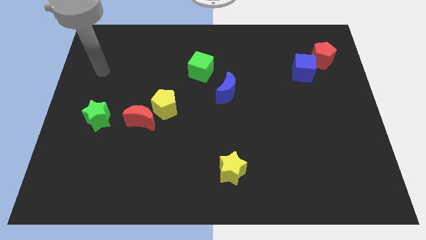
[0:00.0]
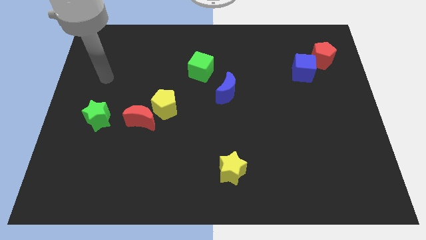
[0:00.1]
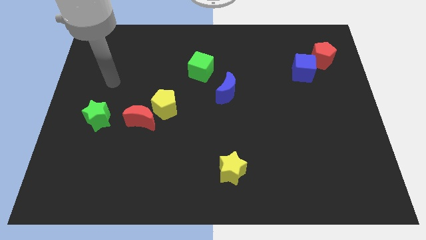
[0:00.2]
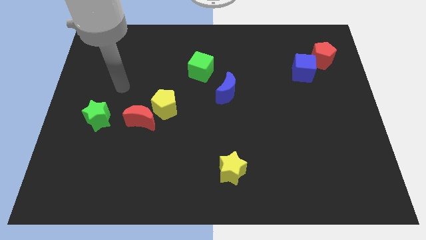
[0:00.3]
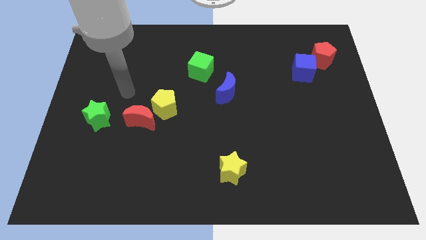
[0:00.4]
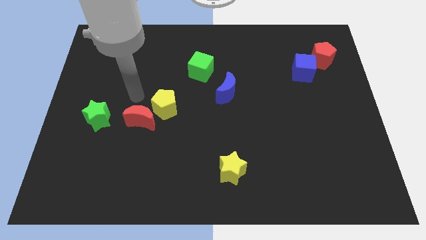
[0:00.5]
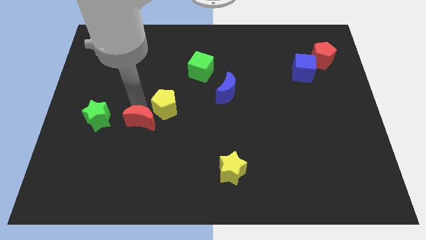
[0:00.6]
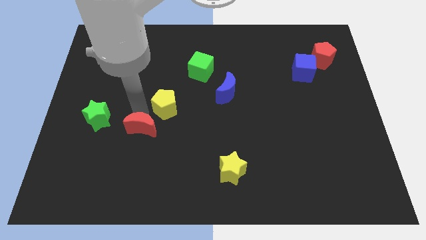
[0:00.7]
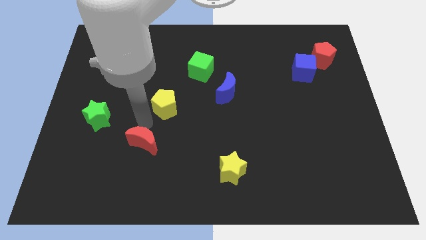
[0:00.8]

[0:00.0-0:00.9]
pull the yellow pentagon apart from the red moon

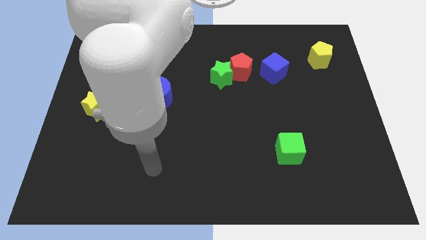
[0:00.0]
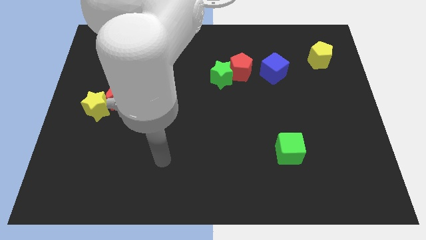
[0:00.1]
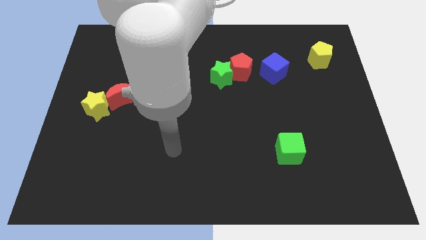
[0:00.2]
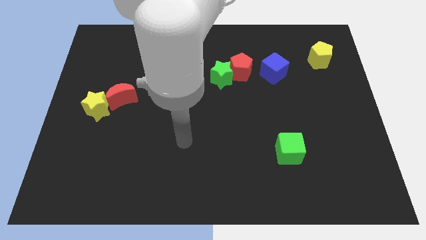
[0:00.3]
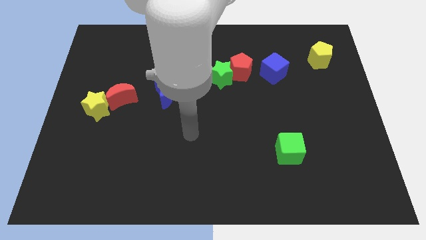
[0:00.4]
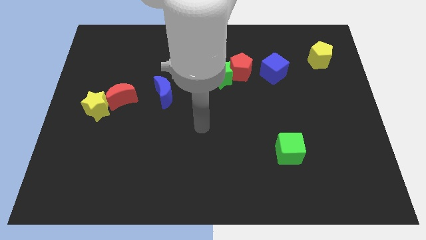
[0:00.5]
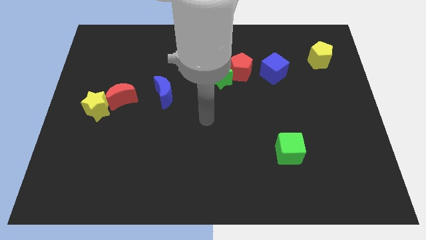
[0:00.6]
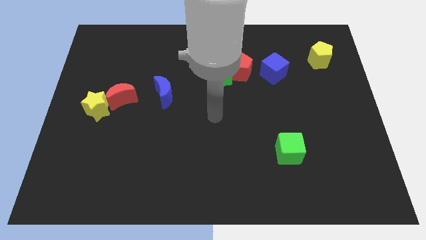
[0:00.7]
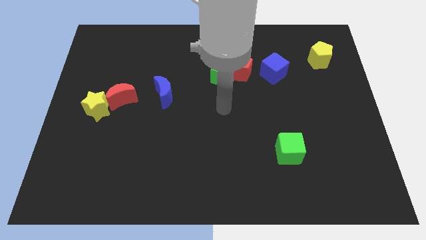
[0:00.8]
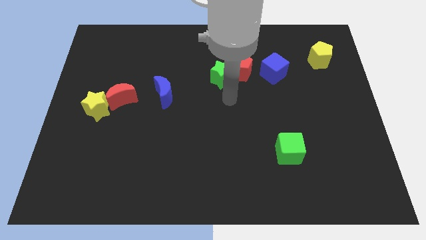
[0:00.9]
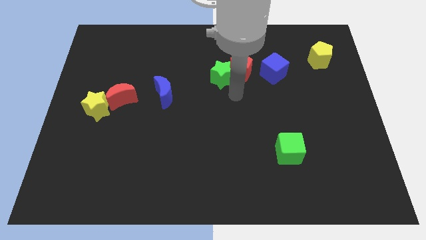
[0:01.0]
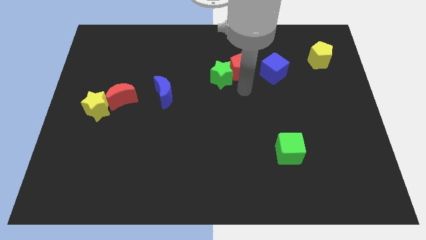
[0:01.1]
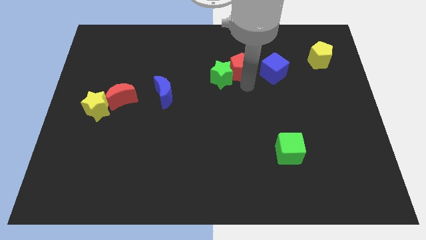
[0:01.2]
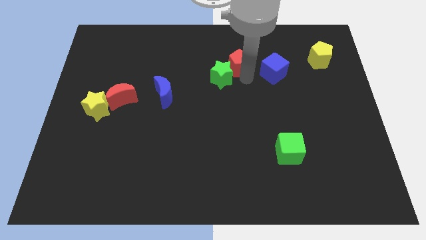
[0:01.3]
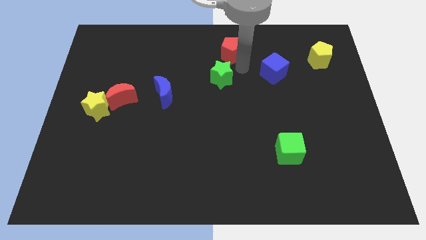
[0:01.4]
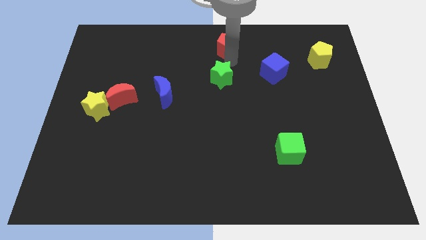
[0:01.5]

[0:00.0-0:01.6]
move the green star away from the red pentagon

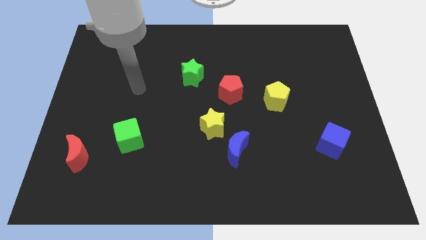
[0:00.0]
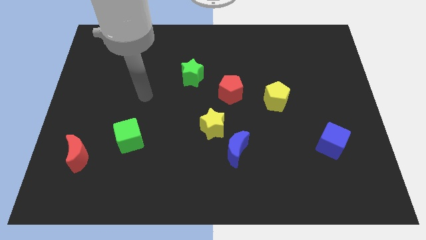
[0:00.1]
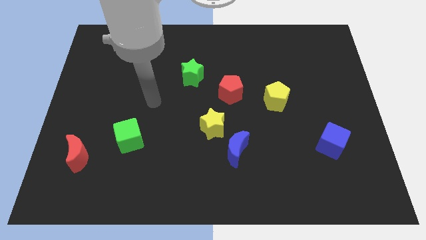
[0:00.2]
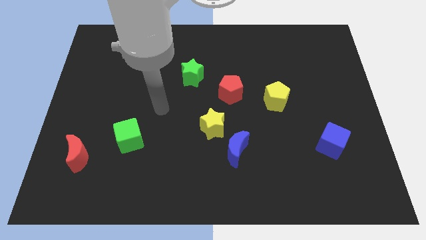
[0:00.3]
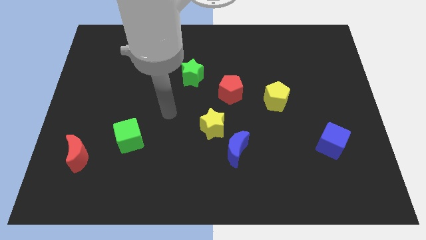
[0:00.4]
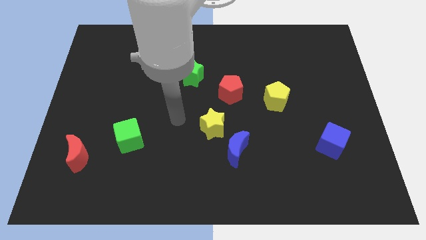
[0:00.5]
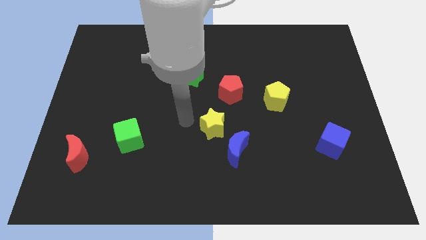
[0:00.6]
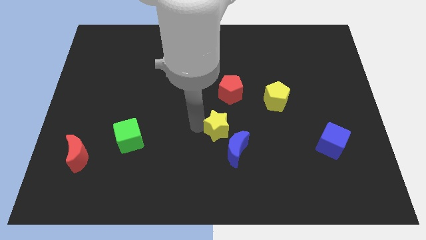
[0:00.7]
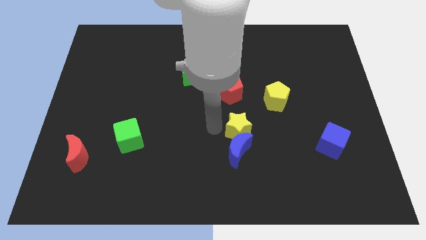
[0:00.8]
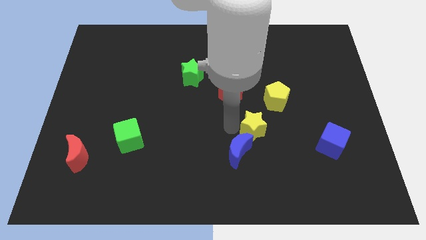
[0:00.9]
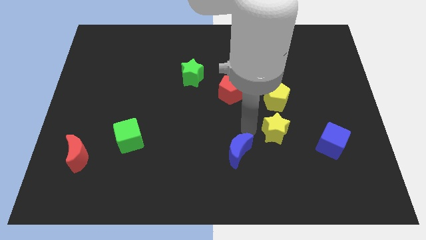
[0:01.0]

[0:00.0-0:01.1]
separate the blue moon from the yellow star

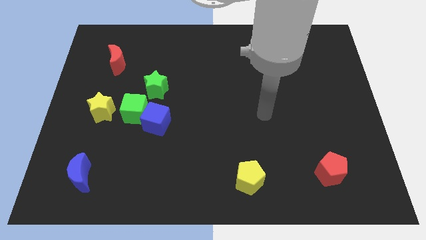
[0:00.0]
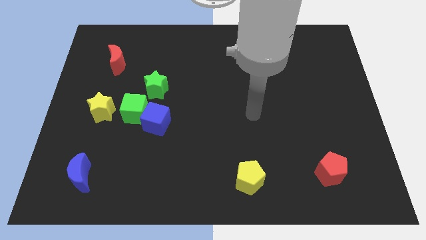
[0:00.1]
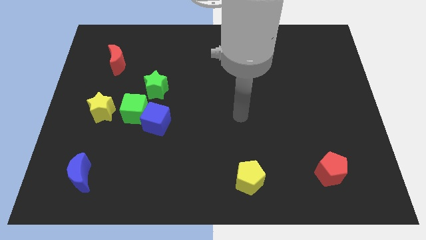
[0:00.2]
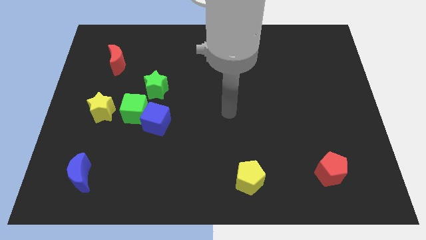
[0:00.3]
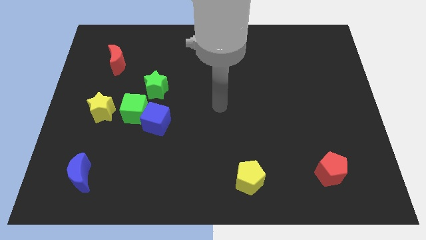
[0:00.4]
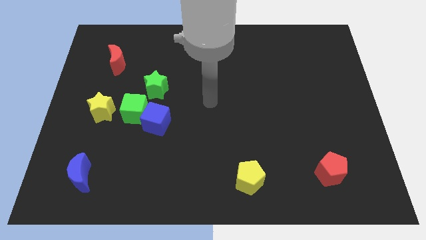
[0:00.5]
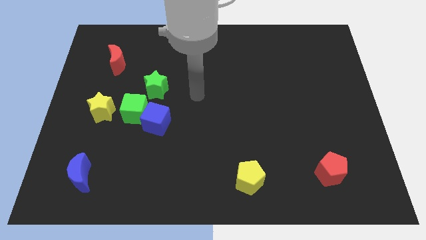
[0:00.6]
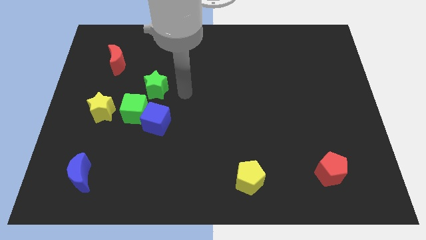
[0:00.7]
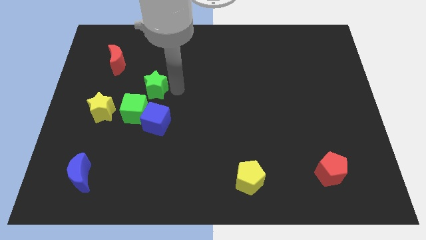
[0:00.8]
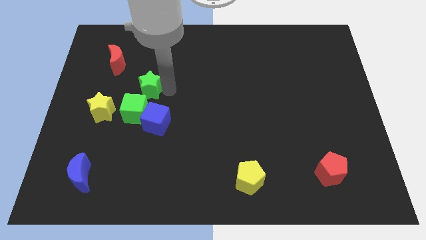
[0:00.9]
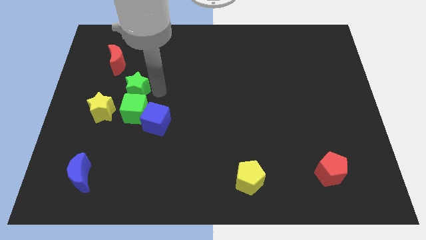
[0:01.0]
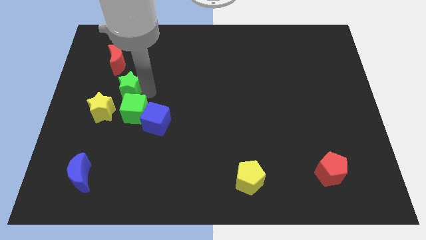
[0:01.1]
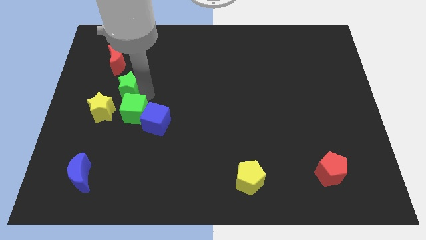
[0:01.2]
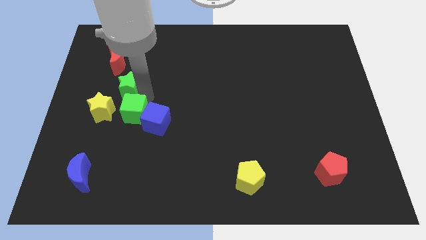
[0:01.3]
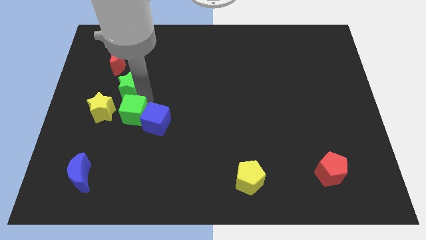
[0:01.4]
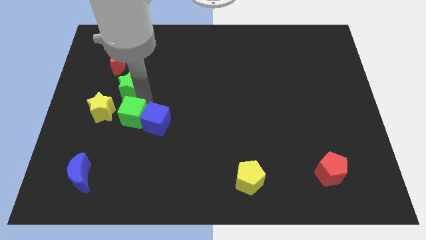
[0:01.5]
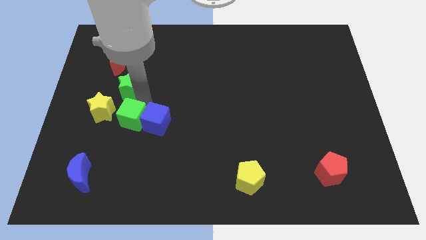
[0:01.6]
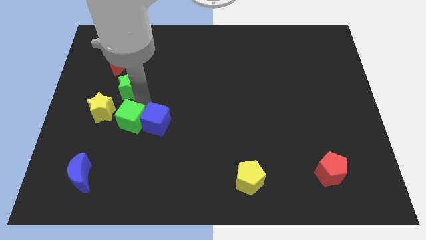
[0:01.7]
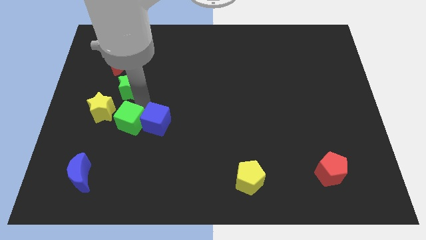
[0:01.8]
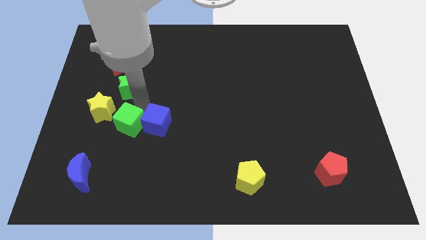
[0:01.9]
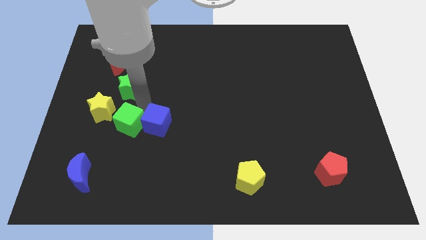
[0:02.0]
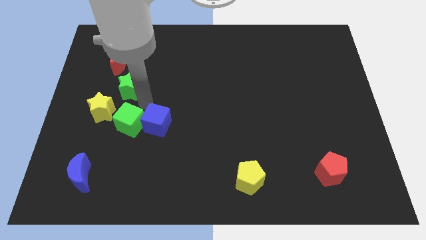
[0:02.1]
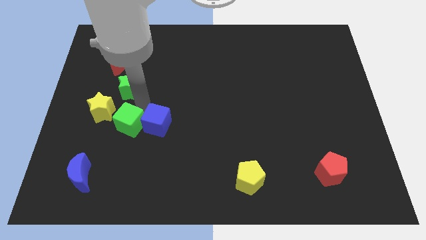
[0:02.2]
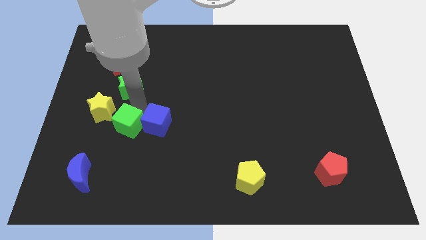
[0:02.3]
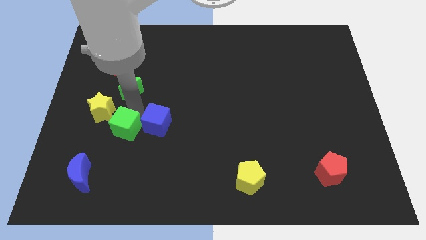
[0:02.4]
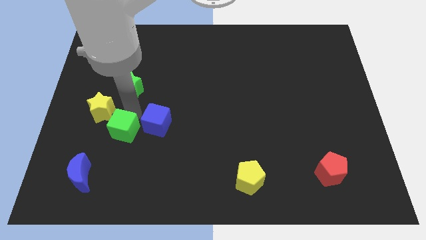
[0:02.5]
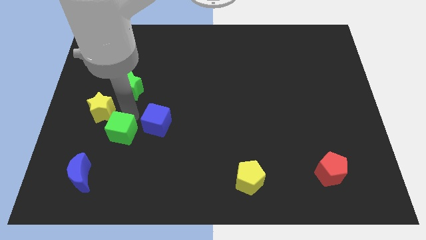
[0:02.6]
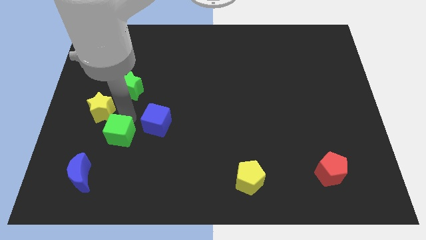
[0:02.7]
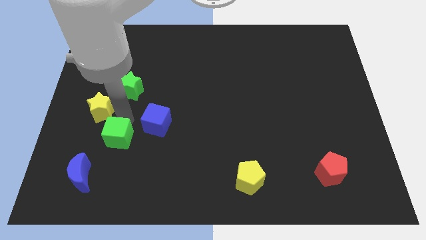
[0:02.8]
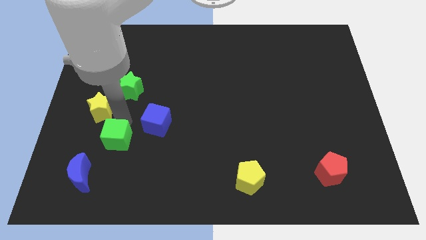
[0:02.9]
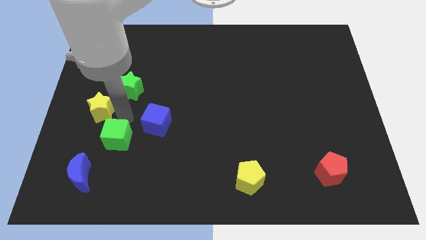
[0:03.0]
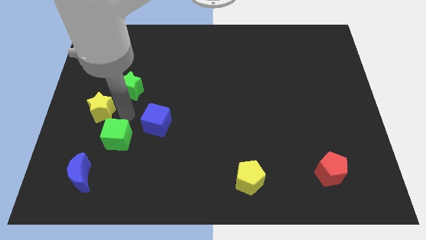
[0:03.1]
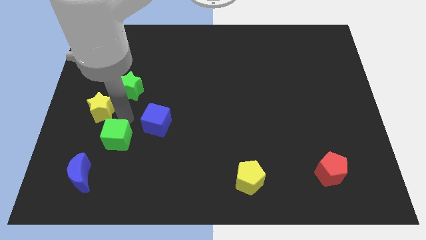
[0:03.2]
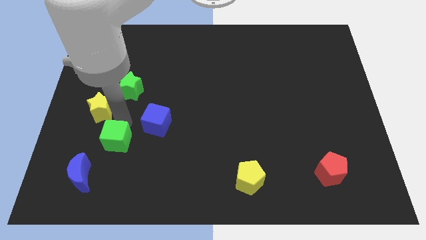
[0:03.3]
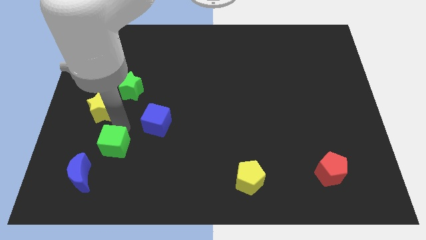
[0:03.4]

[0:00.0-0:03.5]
move the green cube away from the blue cube, yellow star, and green star

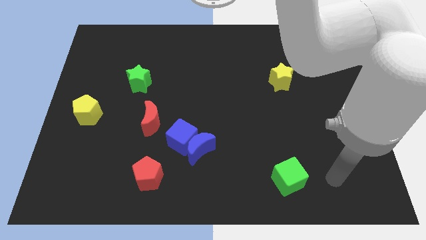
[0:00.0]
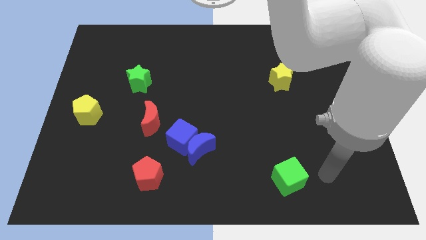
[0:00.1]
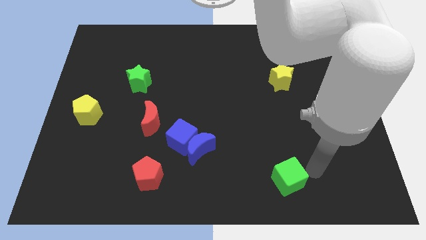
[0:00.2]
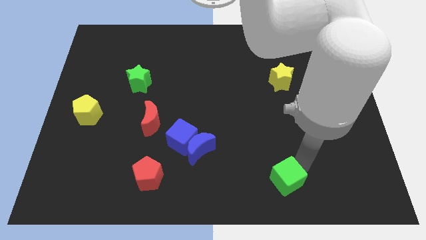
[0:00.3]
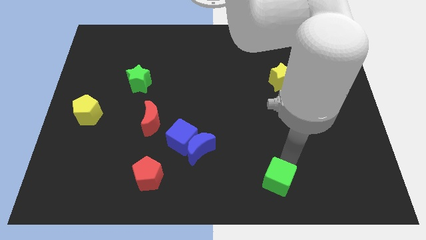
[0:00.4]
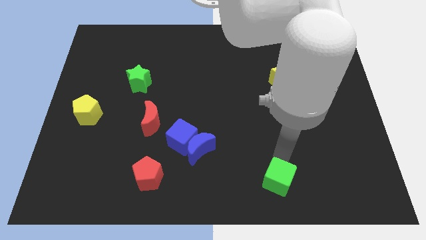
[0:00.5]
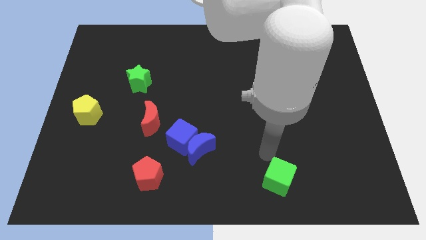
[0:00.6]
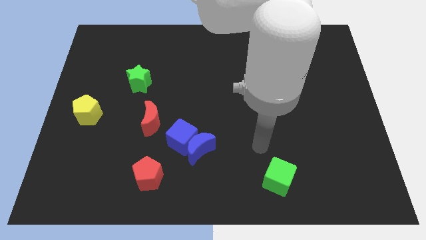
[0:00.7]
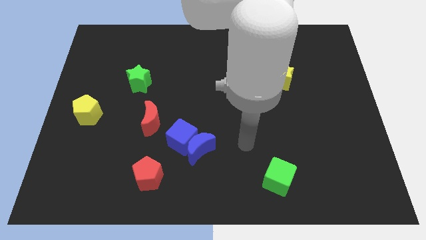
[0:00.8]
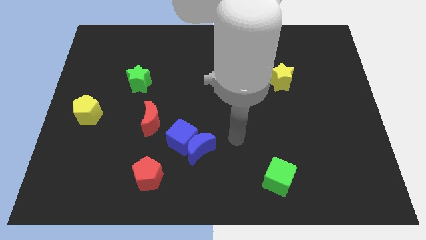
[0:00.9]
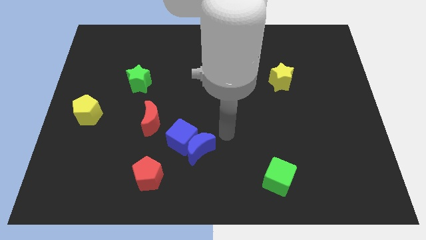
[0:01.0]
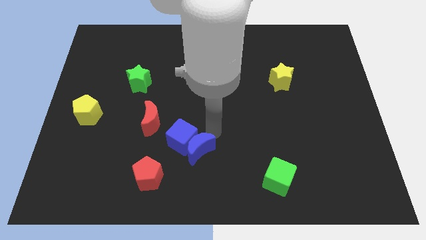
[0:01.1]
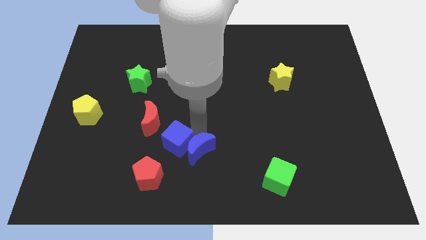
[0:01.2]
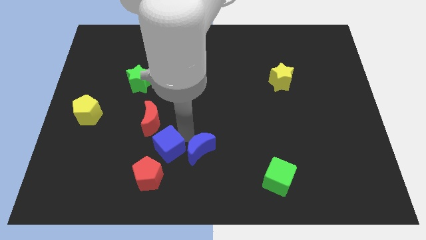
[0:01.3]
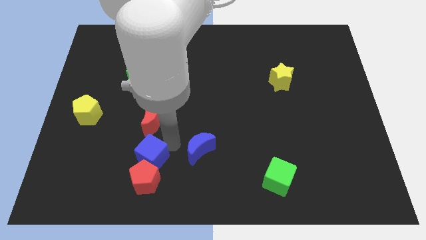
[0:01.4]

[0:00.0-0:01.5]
move the blue moon away from the blue cube

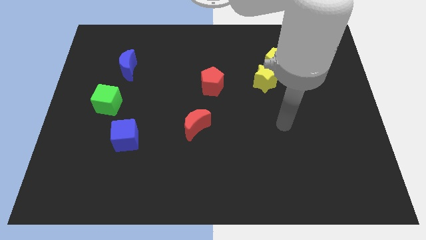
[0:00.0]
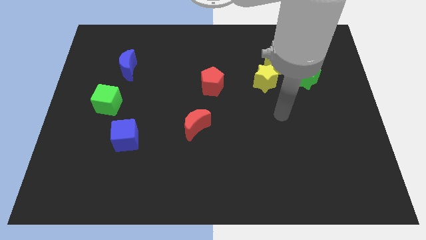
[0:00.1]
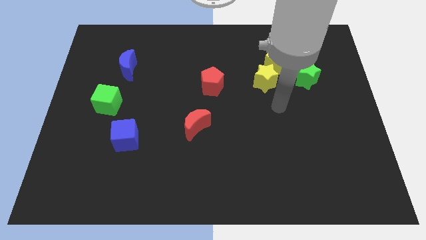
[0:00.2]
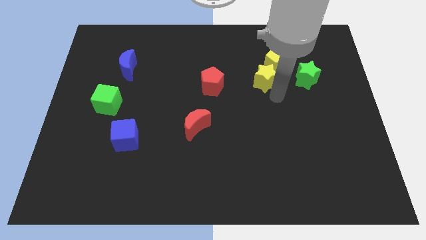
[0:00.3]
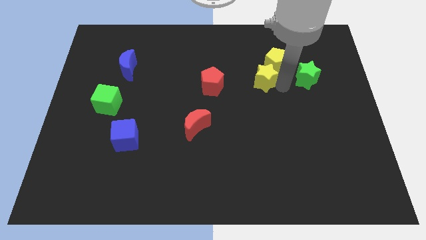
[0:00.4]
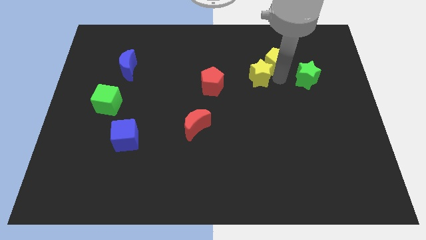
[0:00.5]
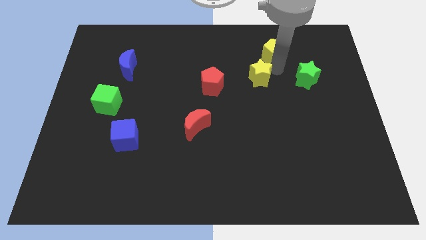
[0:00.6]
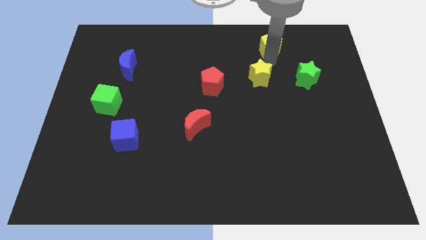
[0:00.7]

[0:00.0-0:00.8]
move the yellow star away from the yellow pentagon
